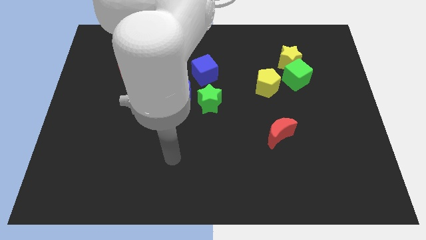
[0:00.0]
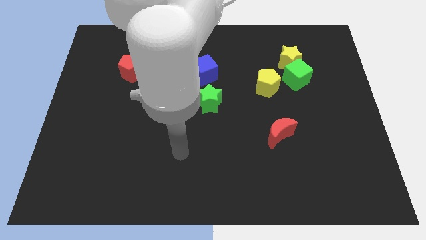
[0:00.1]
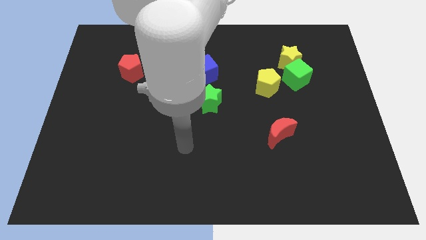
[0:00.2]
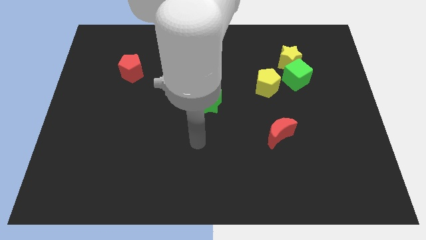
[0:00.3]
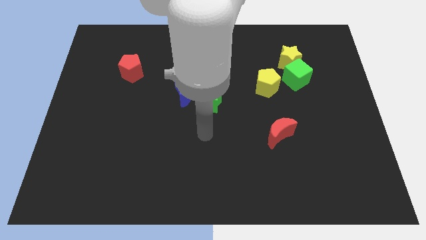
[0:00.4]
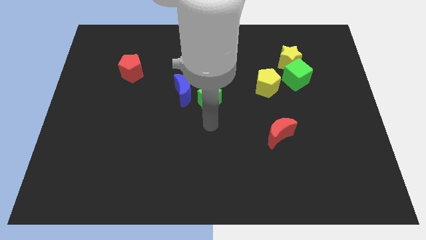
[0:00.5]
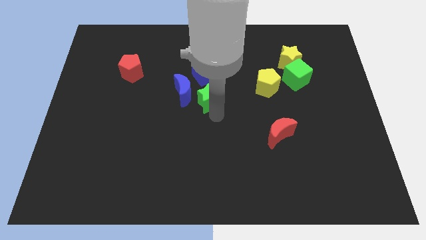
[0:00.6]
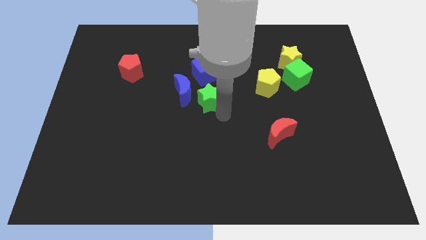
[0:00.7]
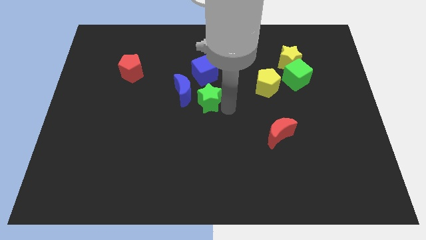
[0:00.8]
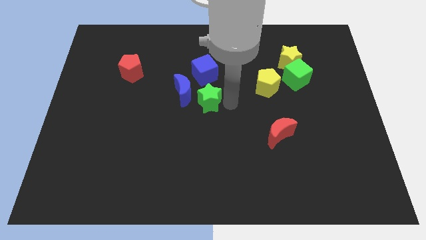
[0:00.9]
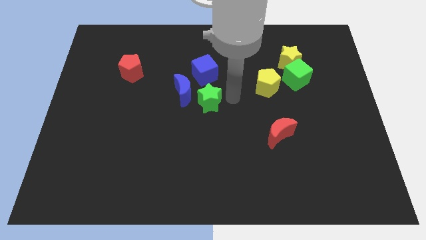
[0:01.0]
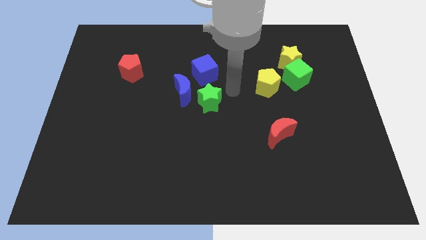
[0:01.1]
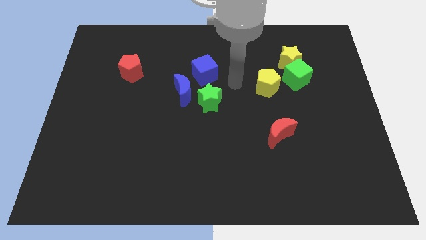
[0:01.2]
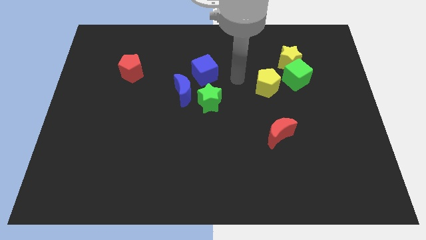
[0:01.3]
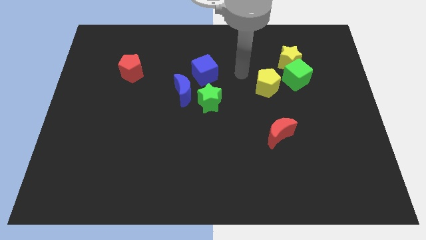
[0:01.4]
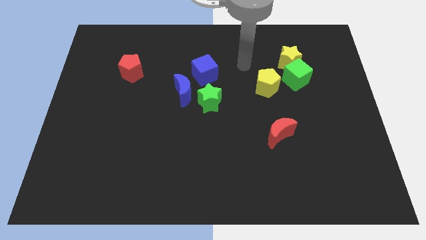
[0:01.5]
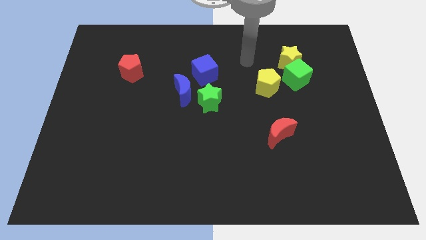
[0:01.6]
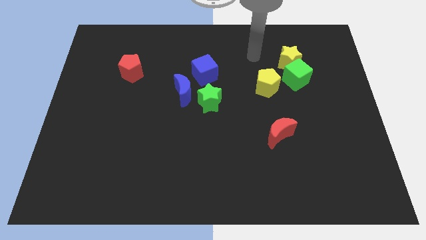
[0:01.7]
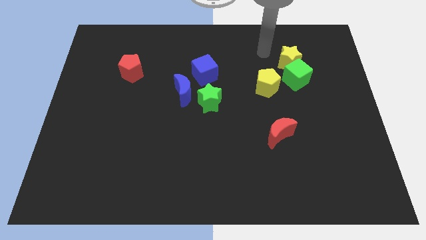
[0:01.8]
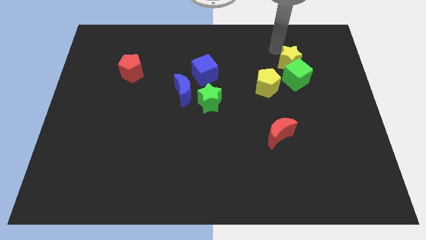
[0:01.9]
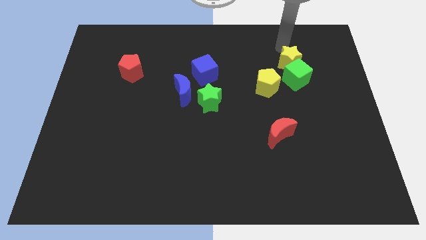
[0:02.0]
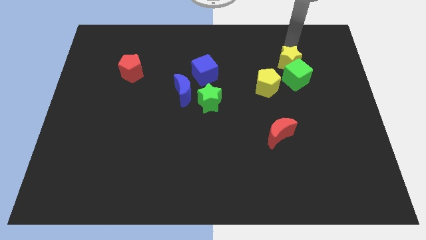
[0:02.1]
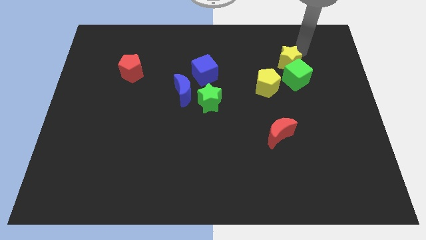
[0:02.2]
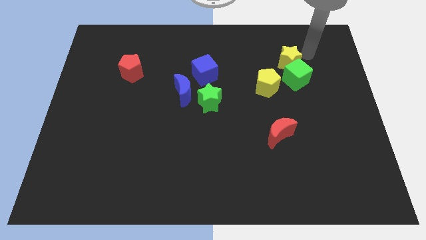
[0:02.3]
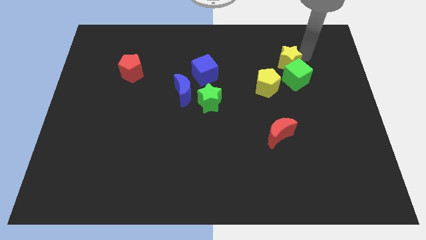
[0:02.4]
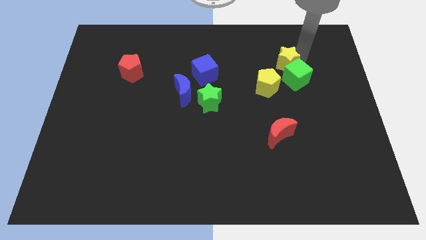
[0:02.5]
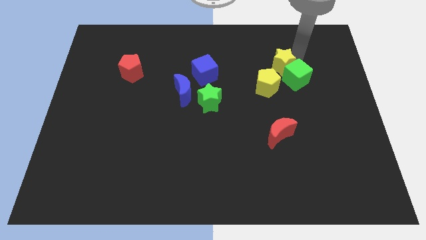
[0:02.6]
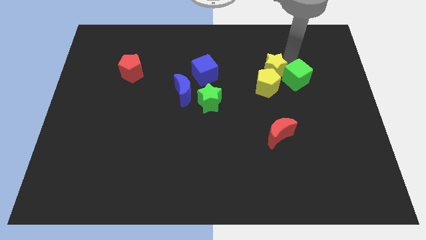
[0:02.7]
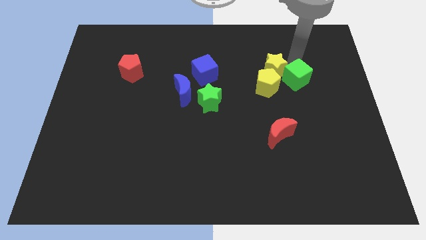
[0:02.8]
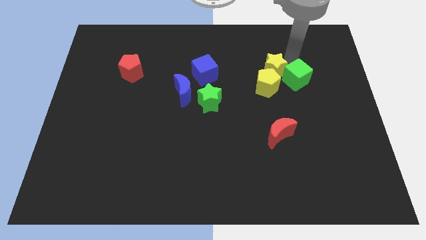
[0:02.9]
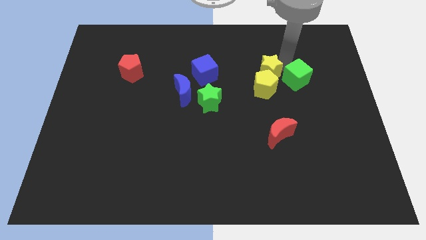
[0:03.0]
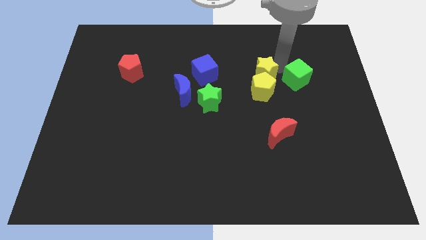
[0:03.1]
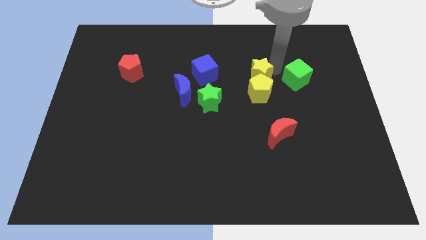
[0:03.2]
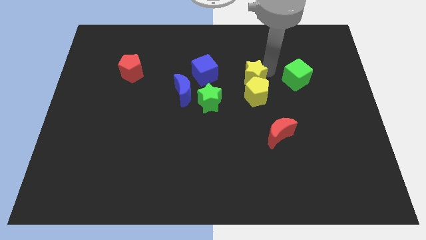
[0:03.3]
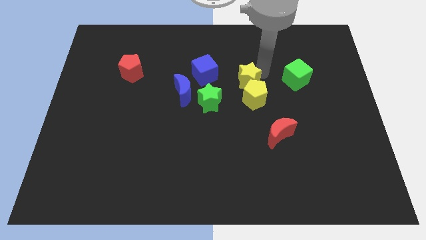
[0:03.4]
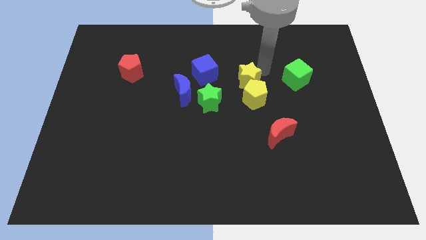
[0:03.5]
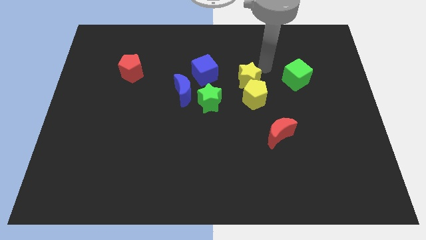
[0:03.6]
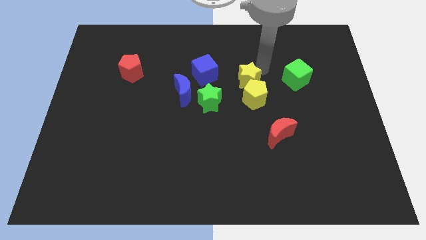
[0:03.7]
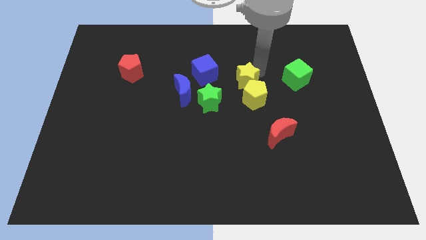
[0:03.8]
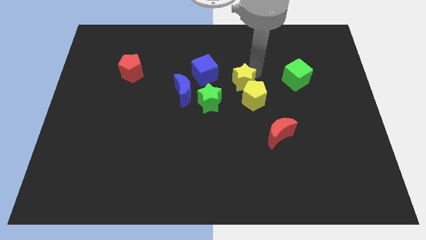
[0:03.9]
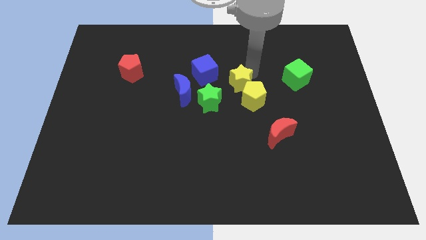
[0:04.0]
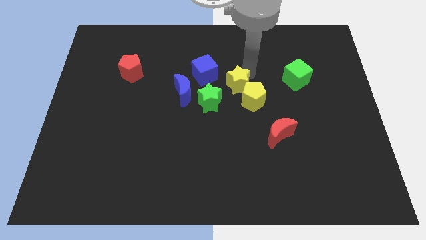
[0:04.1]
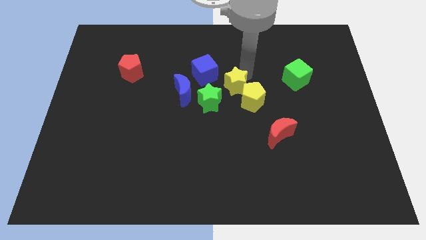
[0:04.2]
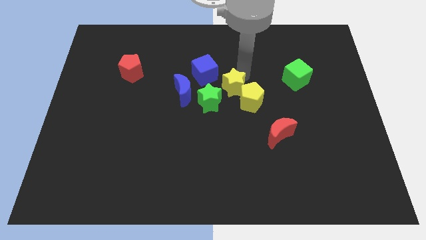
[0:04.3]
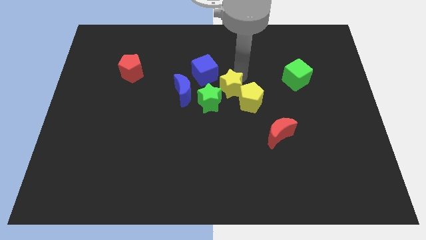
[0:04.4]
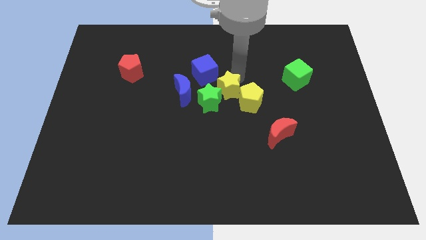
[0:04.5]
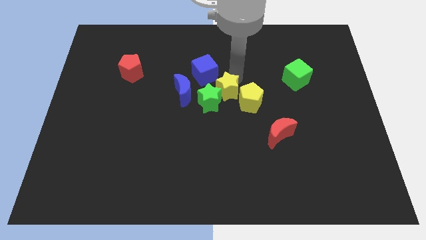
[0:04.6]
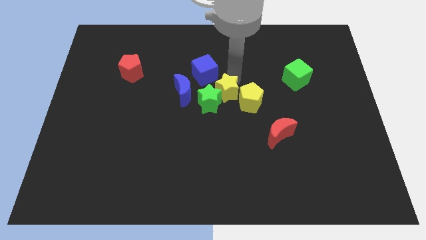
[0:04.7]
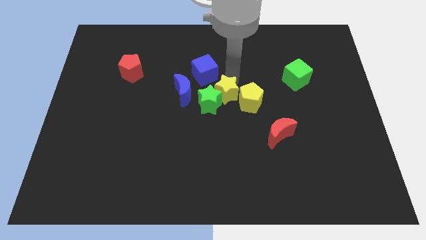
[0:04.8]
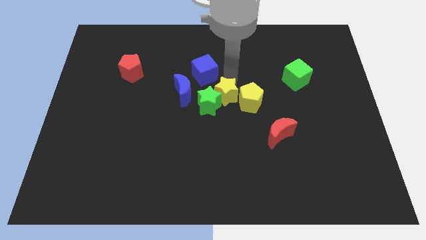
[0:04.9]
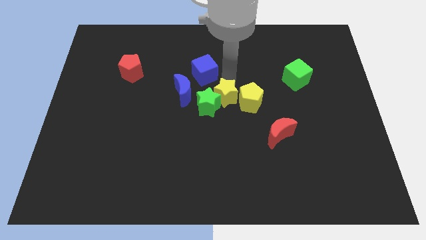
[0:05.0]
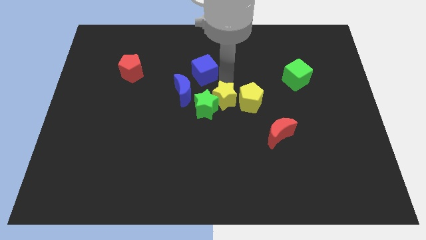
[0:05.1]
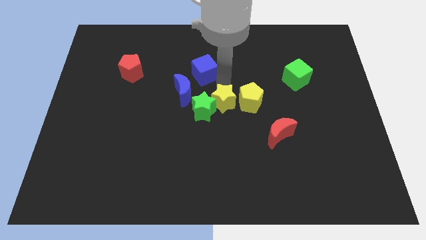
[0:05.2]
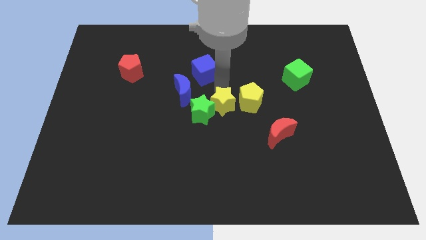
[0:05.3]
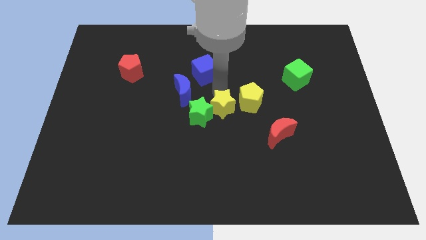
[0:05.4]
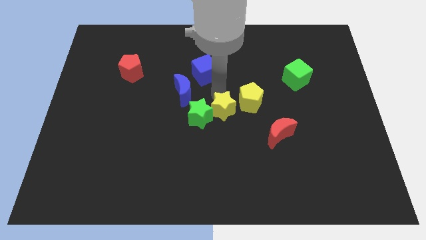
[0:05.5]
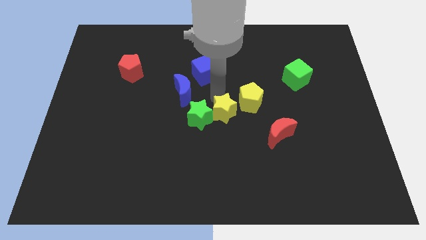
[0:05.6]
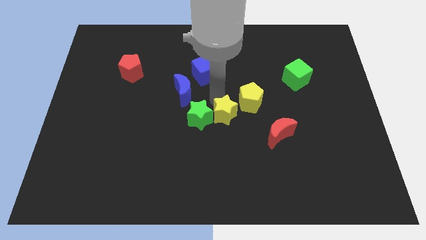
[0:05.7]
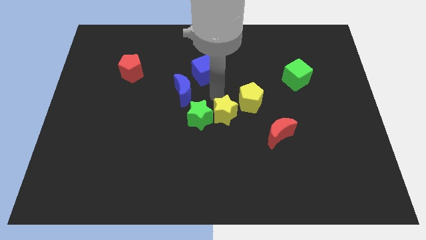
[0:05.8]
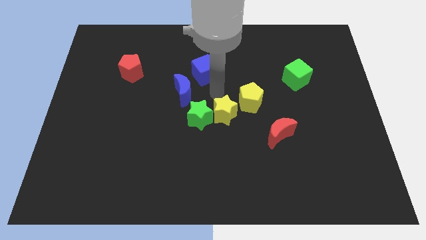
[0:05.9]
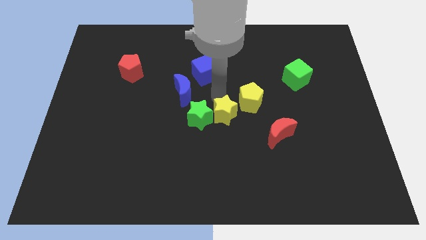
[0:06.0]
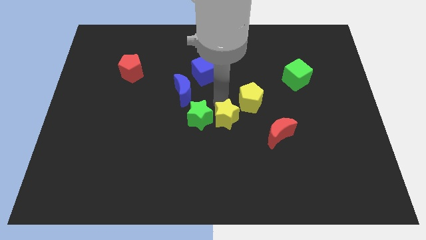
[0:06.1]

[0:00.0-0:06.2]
move the yellow star to the left side of the red moon
